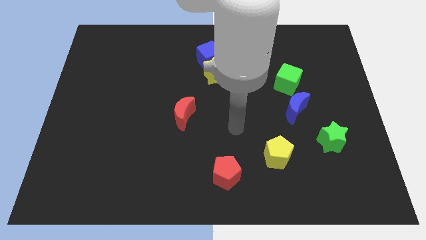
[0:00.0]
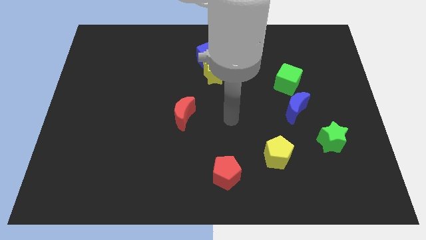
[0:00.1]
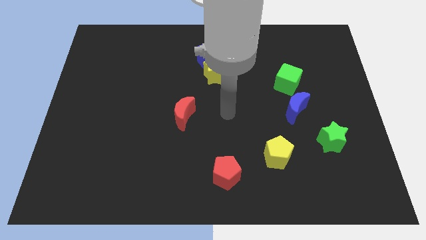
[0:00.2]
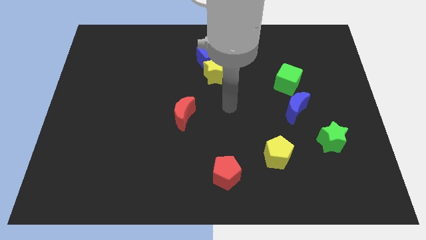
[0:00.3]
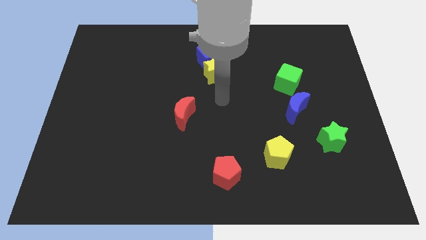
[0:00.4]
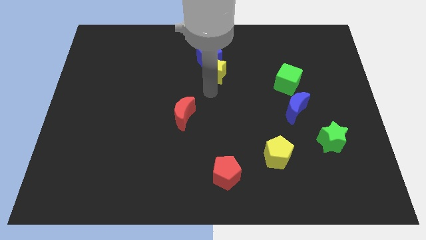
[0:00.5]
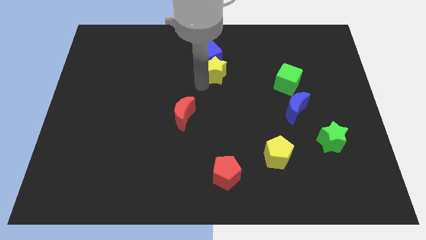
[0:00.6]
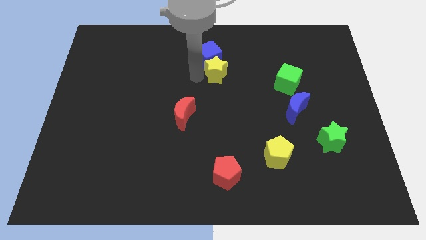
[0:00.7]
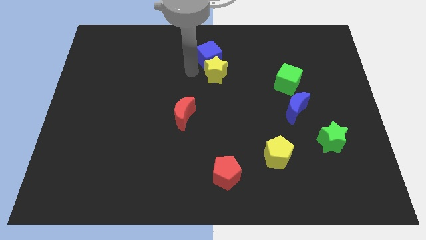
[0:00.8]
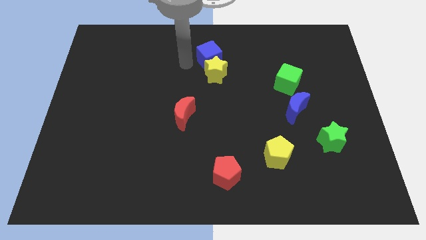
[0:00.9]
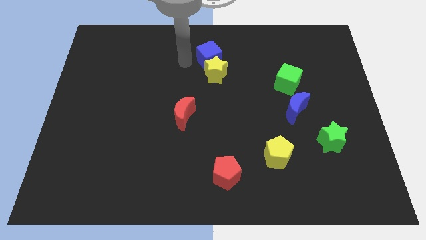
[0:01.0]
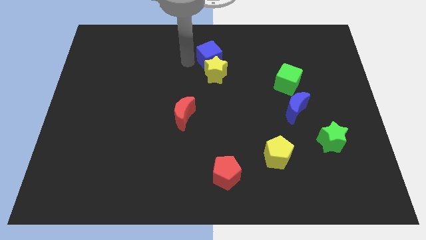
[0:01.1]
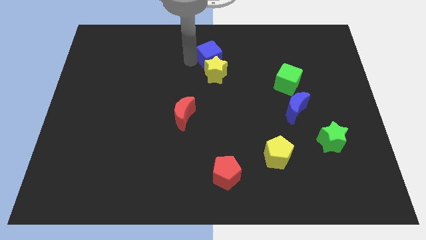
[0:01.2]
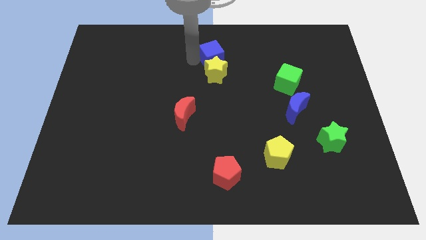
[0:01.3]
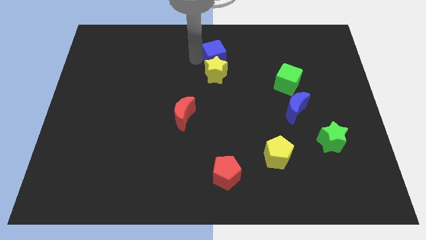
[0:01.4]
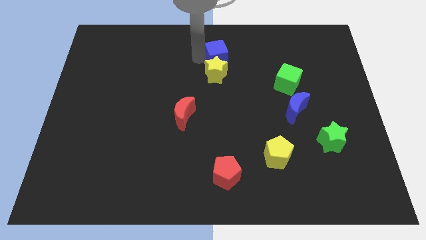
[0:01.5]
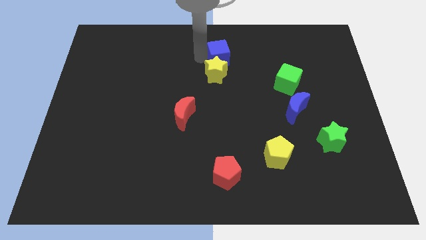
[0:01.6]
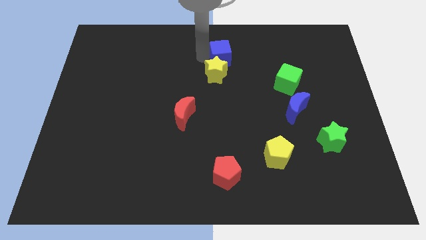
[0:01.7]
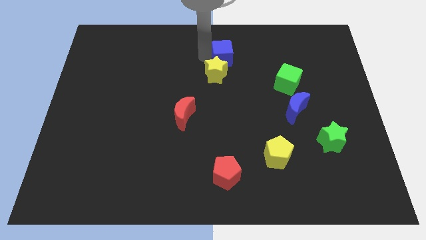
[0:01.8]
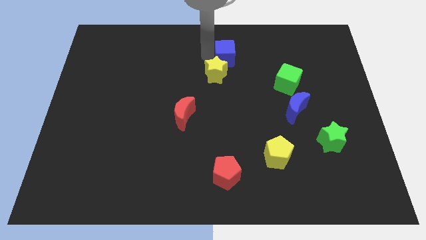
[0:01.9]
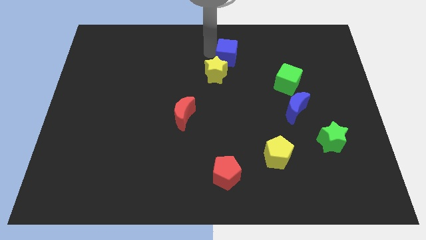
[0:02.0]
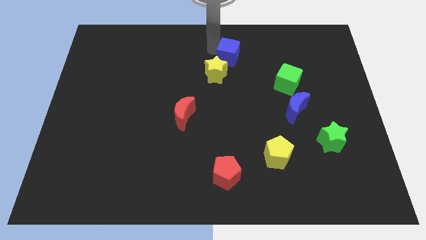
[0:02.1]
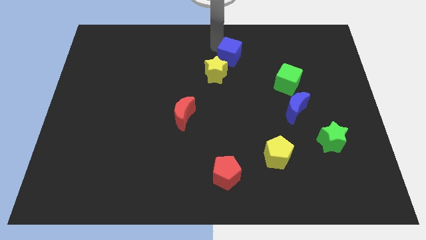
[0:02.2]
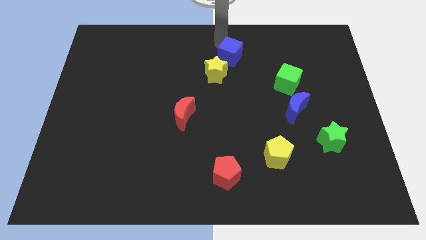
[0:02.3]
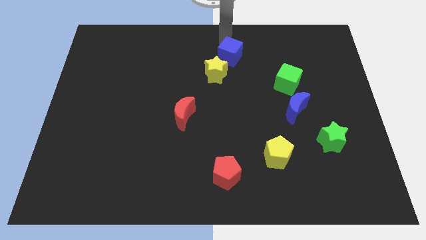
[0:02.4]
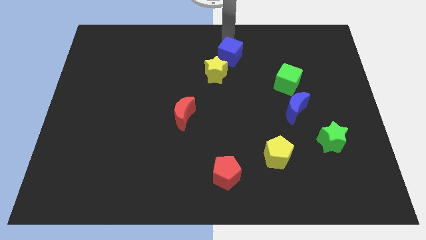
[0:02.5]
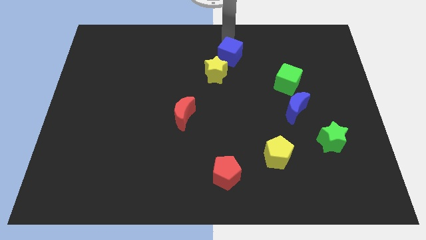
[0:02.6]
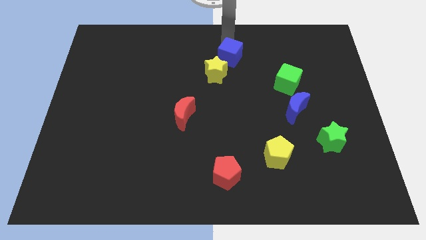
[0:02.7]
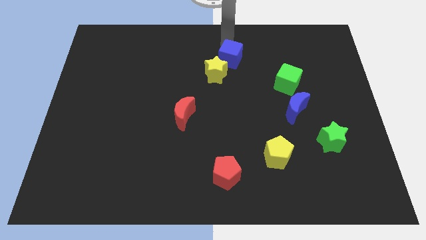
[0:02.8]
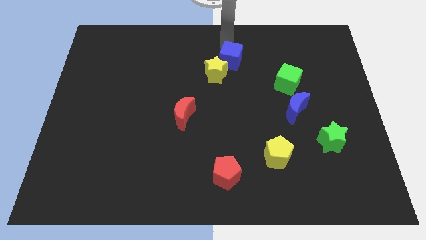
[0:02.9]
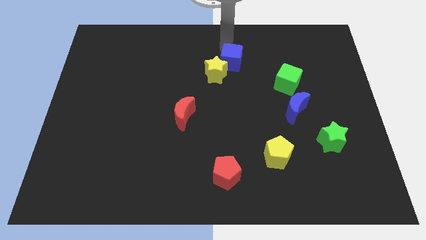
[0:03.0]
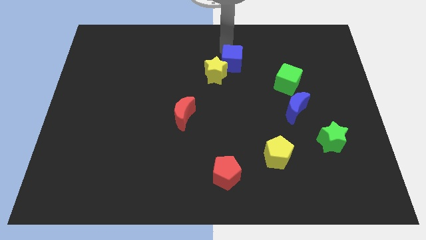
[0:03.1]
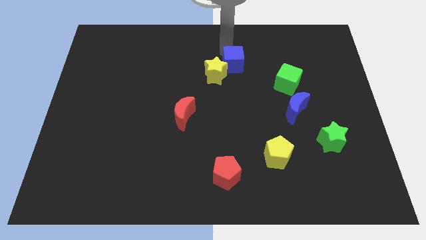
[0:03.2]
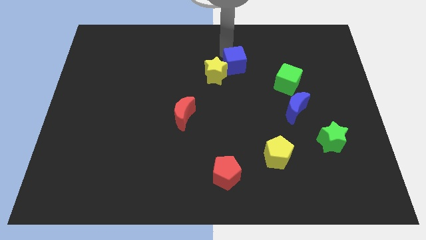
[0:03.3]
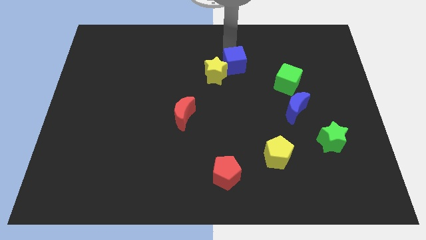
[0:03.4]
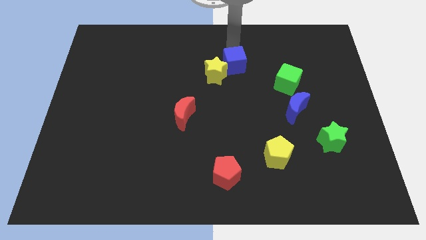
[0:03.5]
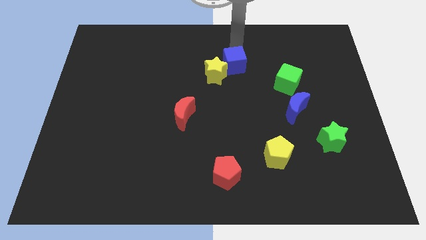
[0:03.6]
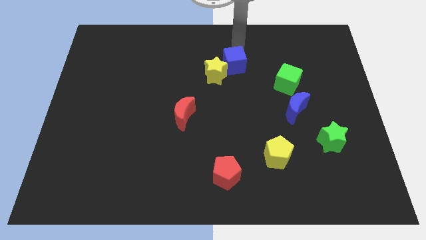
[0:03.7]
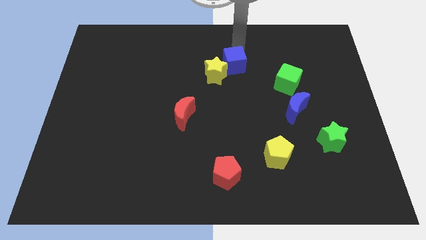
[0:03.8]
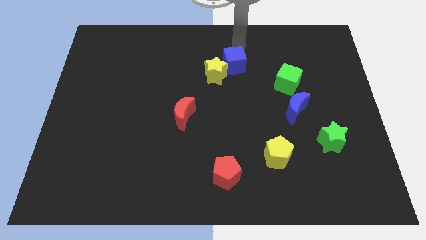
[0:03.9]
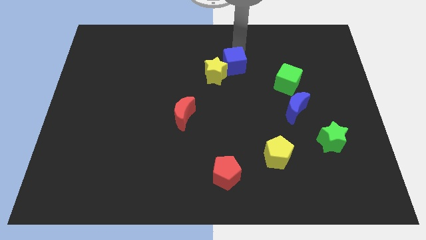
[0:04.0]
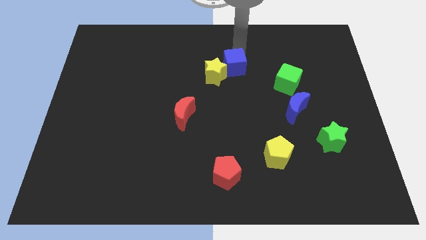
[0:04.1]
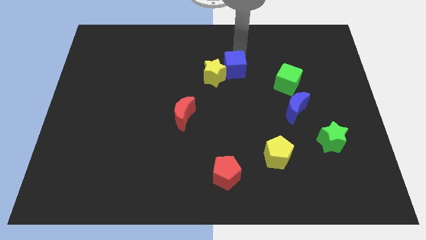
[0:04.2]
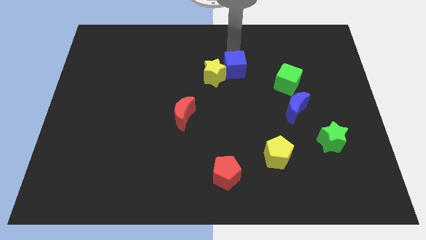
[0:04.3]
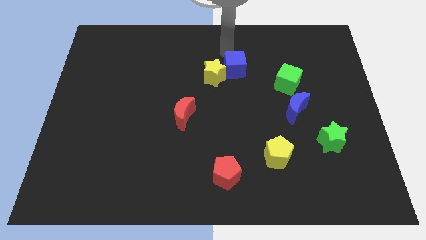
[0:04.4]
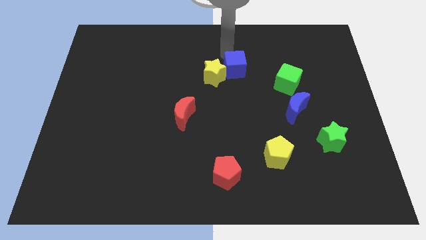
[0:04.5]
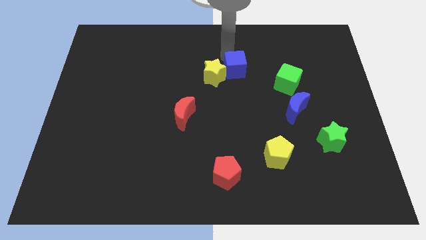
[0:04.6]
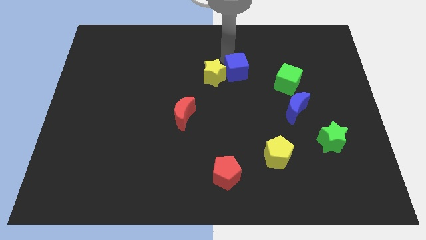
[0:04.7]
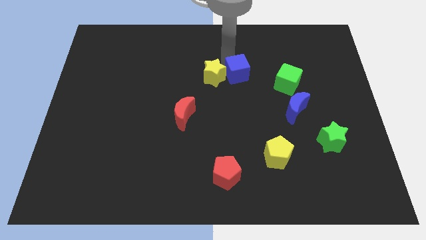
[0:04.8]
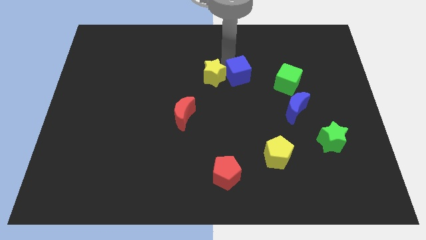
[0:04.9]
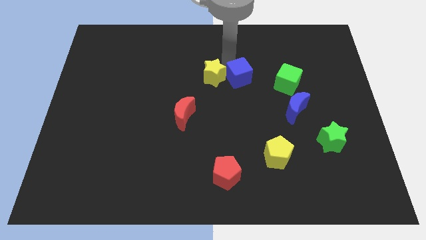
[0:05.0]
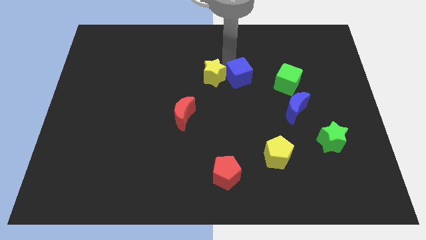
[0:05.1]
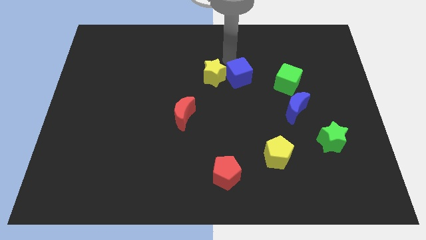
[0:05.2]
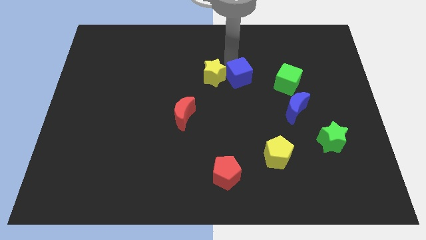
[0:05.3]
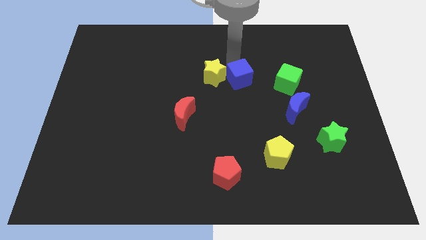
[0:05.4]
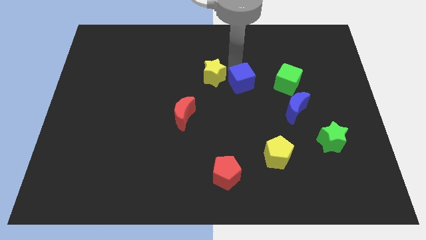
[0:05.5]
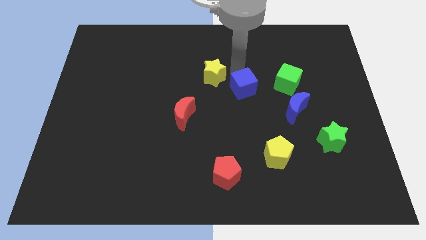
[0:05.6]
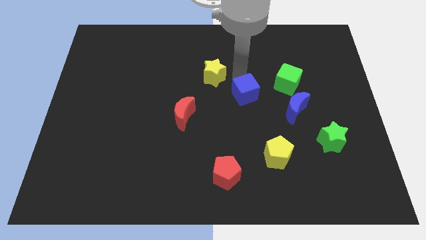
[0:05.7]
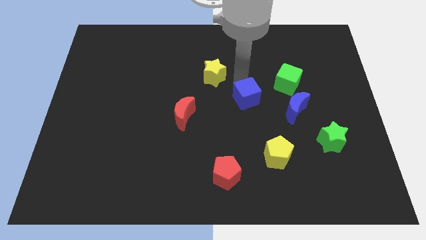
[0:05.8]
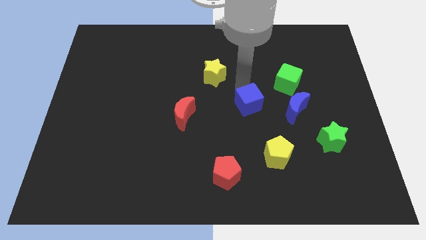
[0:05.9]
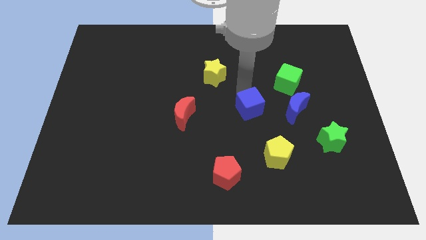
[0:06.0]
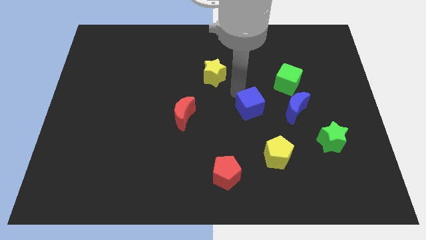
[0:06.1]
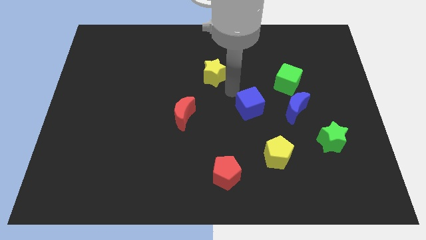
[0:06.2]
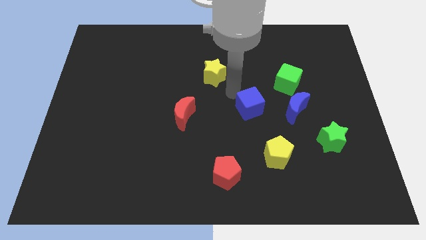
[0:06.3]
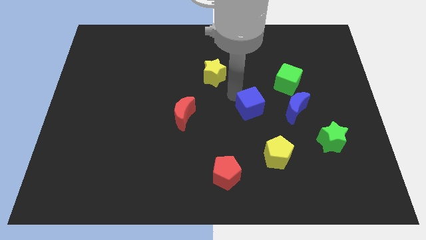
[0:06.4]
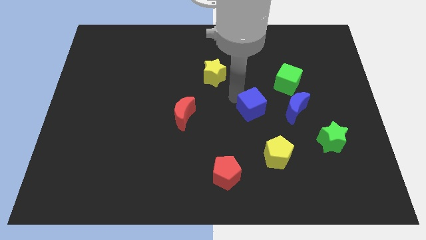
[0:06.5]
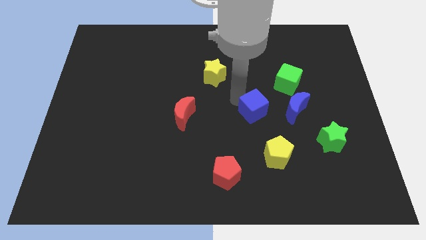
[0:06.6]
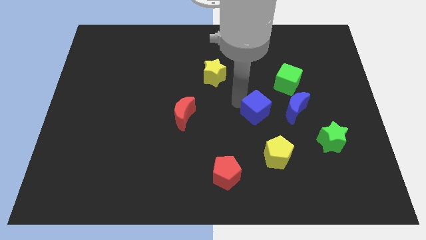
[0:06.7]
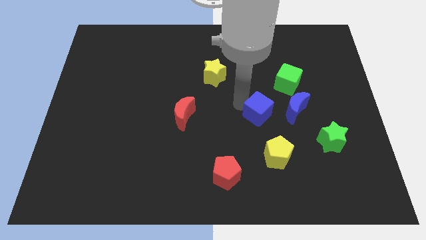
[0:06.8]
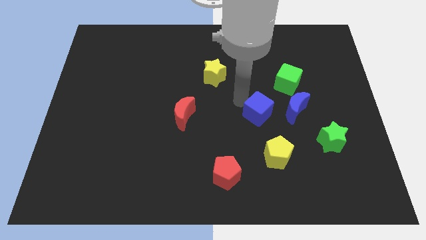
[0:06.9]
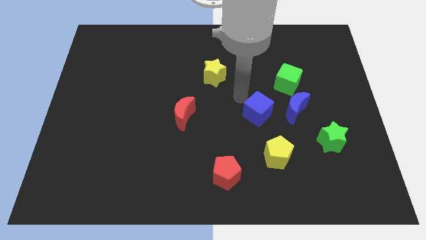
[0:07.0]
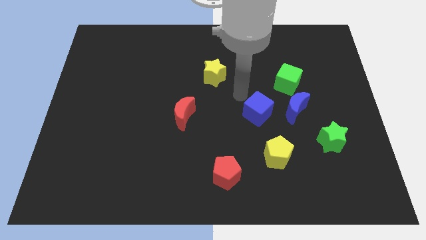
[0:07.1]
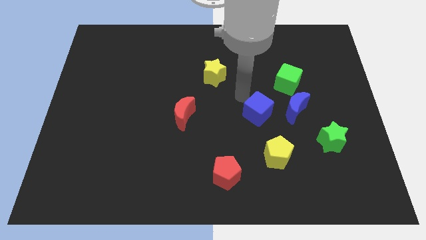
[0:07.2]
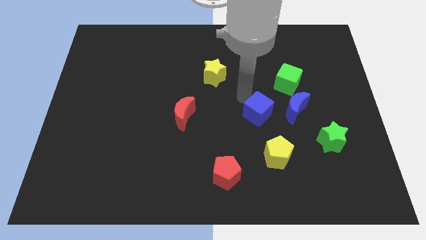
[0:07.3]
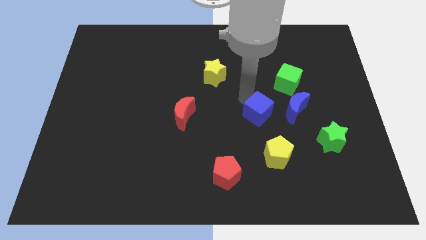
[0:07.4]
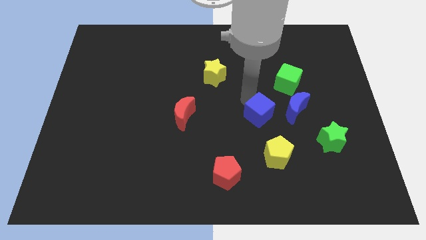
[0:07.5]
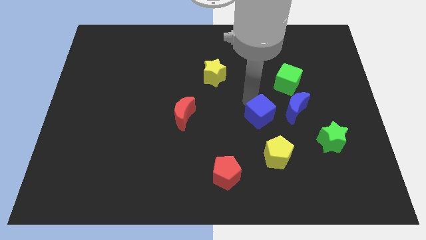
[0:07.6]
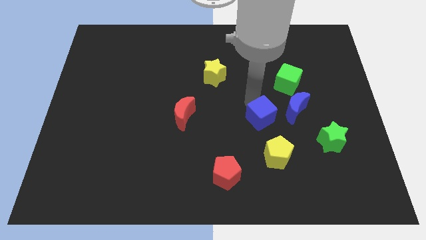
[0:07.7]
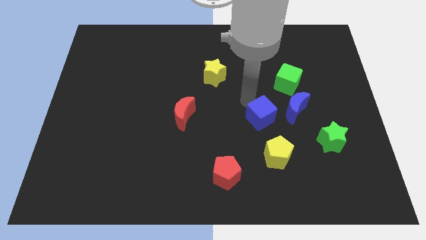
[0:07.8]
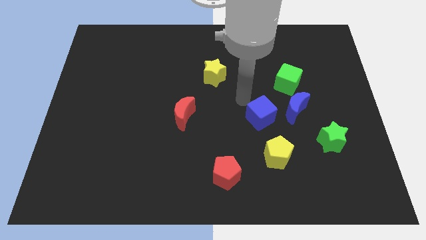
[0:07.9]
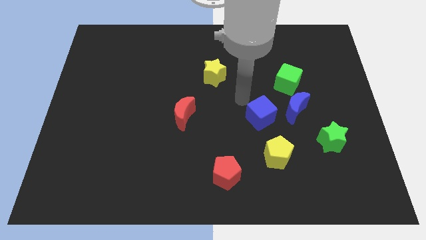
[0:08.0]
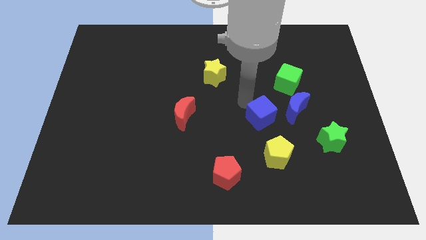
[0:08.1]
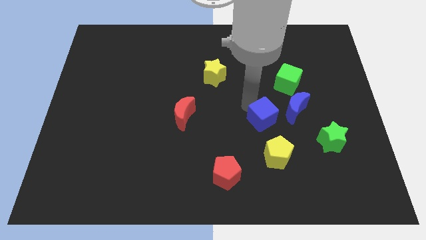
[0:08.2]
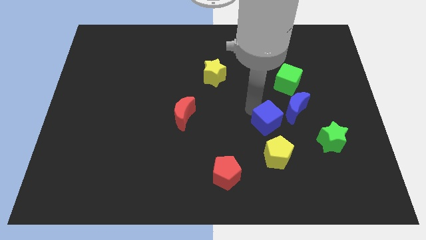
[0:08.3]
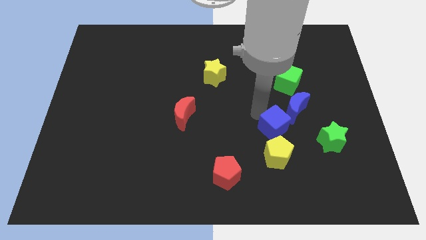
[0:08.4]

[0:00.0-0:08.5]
put the blue cube left of the green star
